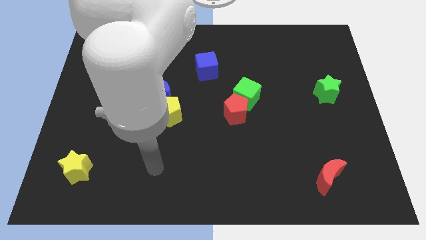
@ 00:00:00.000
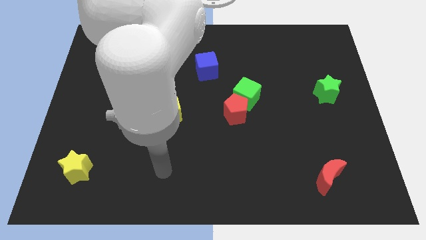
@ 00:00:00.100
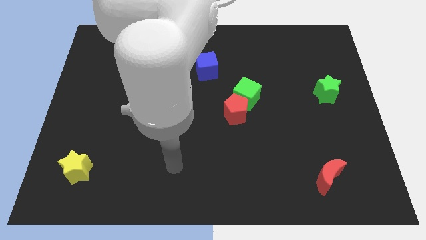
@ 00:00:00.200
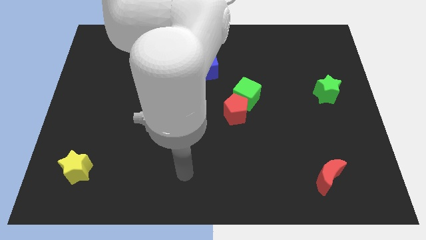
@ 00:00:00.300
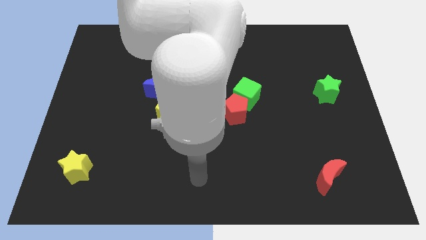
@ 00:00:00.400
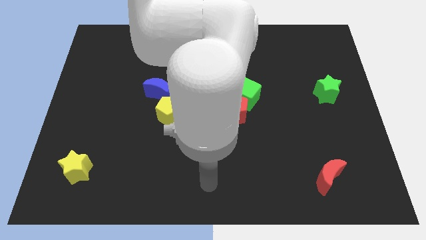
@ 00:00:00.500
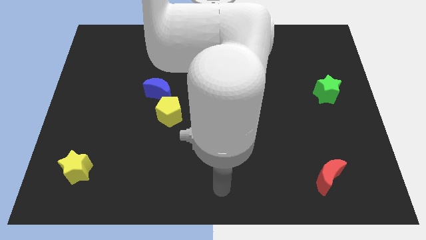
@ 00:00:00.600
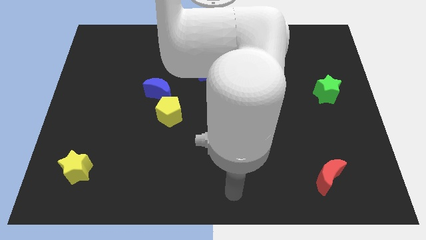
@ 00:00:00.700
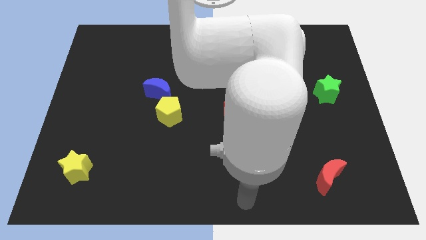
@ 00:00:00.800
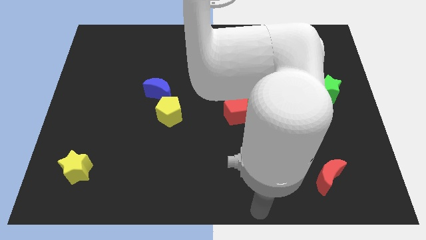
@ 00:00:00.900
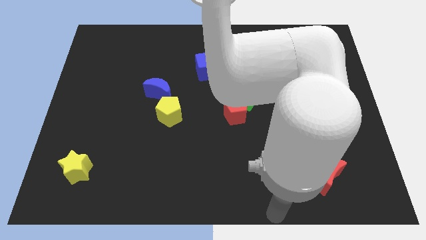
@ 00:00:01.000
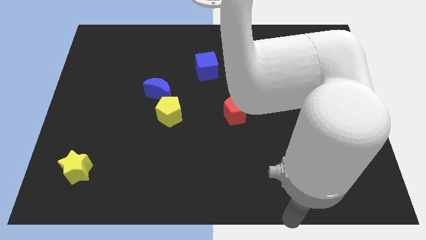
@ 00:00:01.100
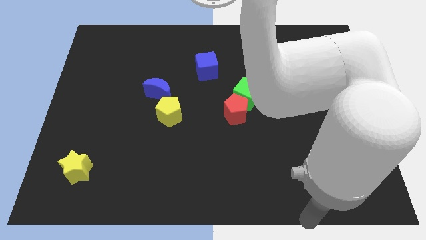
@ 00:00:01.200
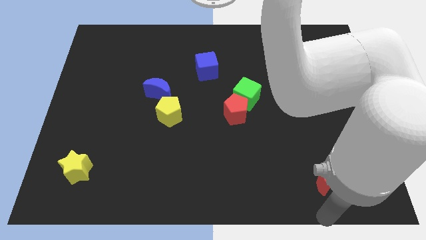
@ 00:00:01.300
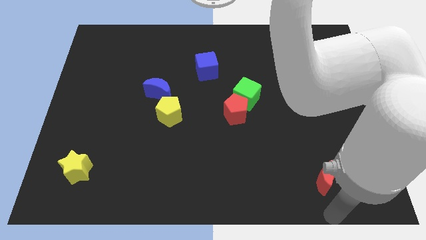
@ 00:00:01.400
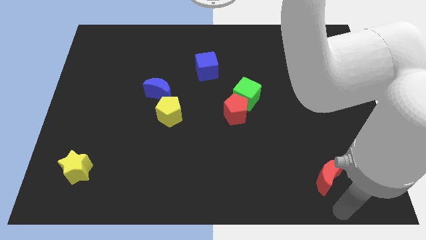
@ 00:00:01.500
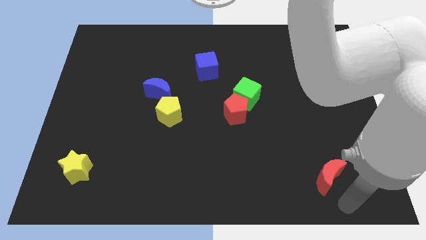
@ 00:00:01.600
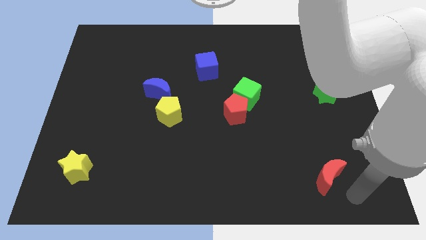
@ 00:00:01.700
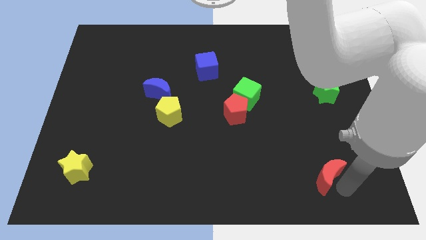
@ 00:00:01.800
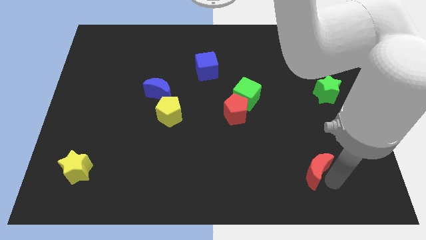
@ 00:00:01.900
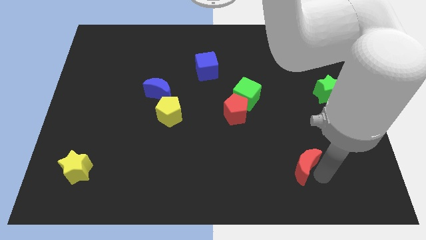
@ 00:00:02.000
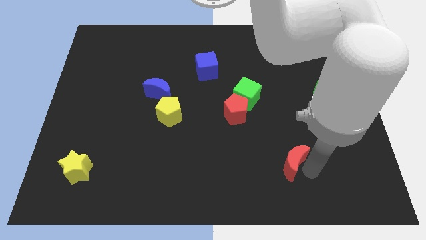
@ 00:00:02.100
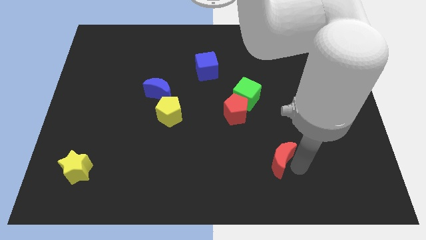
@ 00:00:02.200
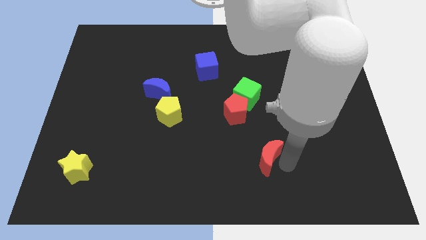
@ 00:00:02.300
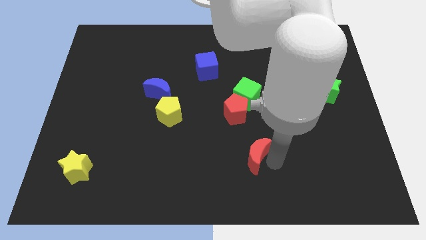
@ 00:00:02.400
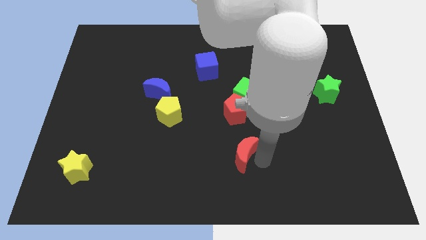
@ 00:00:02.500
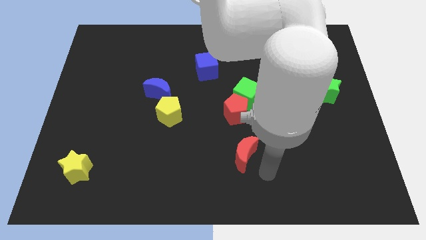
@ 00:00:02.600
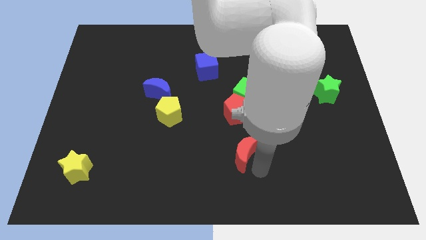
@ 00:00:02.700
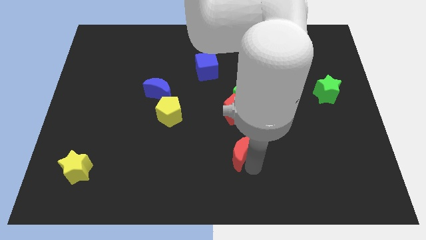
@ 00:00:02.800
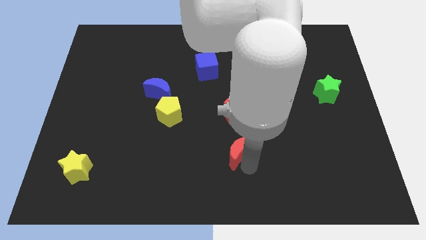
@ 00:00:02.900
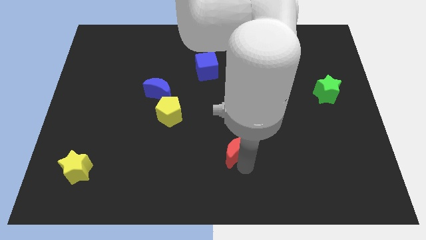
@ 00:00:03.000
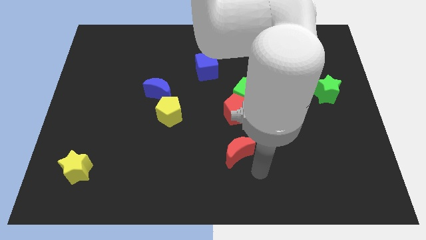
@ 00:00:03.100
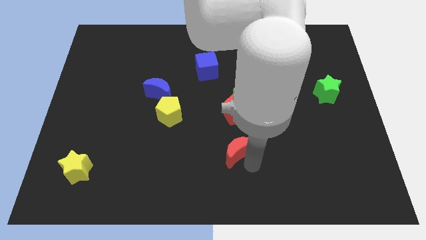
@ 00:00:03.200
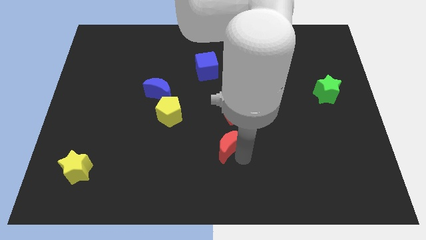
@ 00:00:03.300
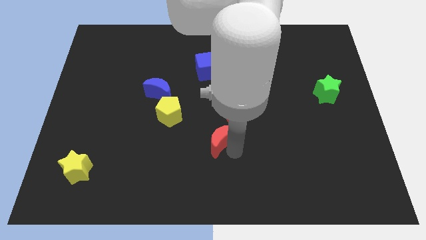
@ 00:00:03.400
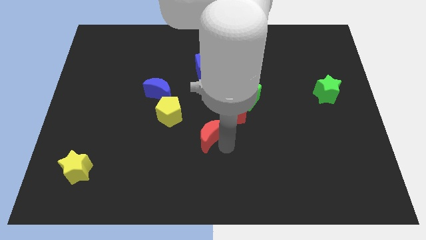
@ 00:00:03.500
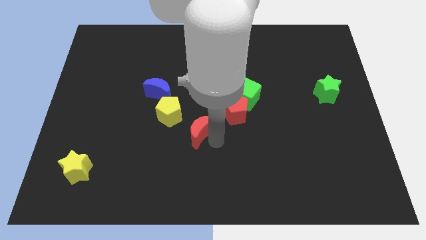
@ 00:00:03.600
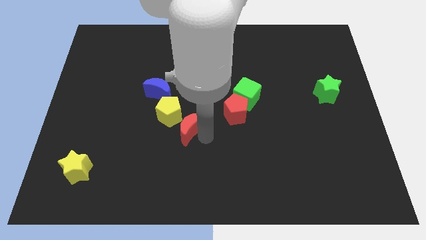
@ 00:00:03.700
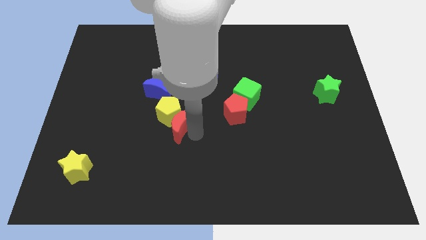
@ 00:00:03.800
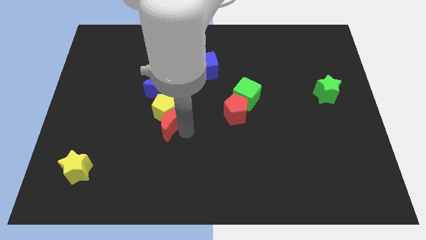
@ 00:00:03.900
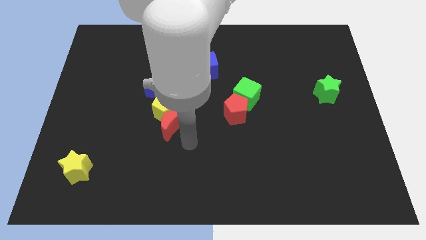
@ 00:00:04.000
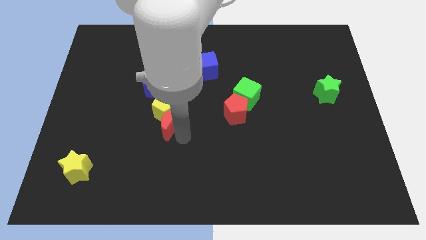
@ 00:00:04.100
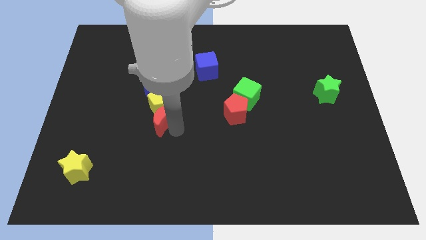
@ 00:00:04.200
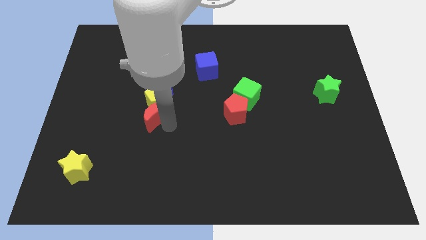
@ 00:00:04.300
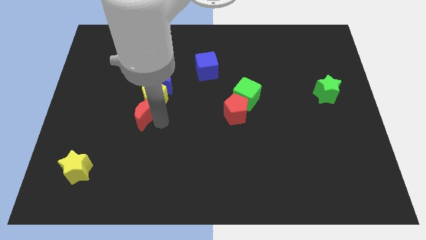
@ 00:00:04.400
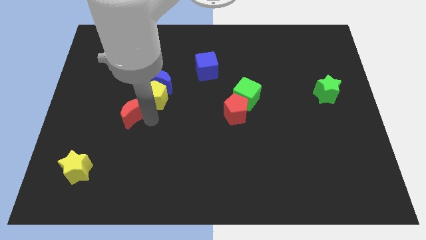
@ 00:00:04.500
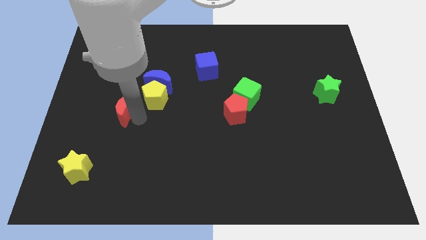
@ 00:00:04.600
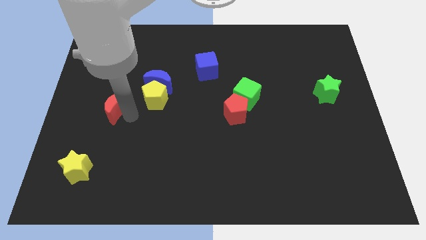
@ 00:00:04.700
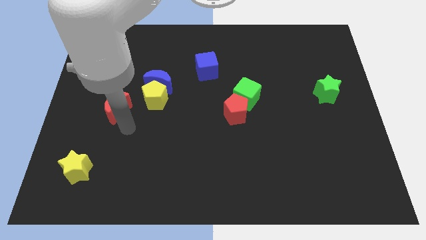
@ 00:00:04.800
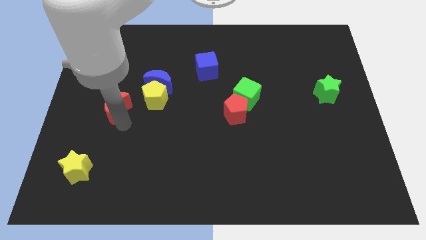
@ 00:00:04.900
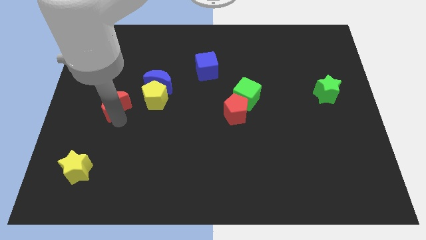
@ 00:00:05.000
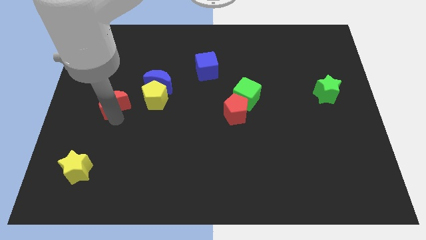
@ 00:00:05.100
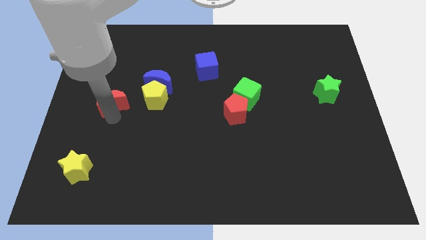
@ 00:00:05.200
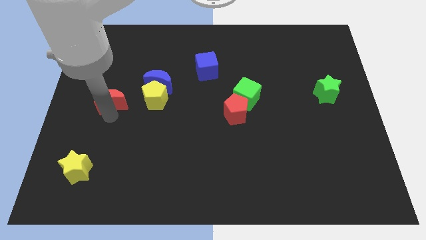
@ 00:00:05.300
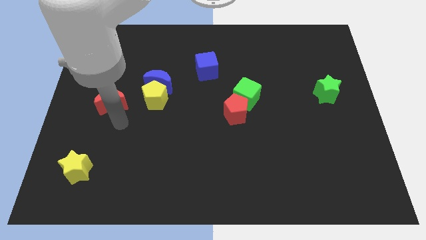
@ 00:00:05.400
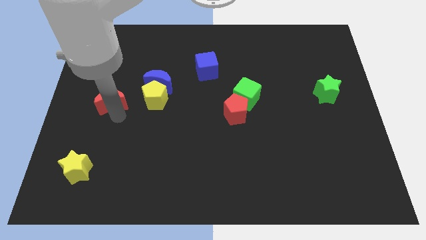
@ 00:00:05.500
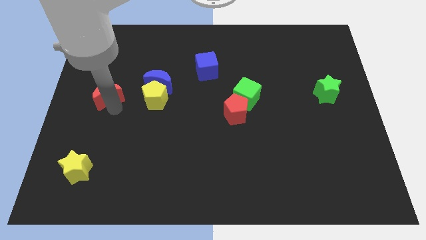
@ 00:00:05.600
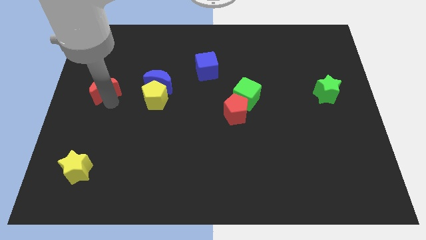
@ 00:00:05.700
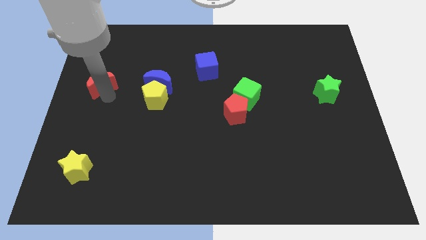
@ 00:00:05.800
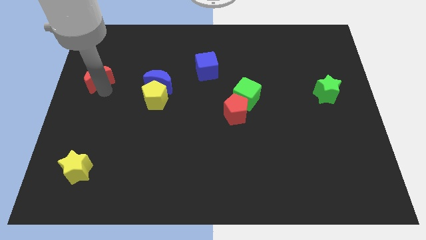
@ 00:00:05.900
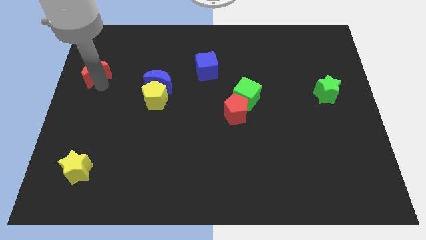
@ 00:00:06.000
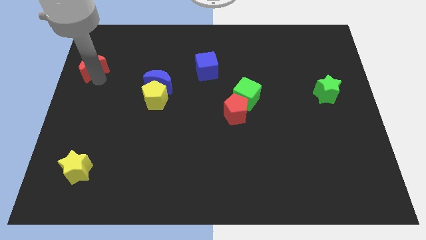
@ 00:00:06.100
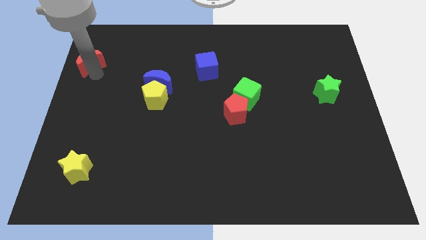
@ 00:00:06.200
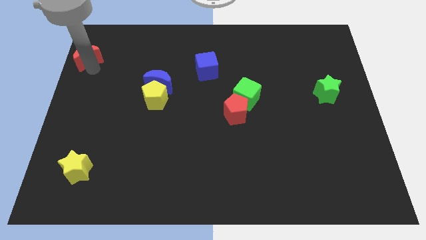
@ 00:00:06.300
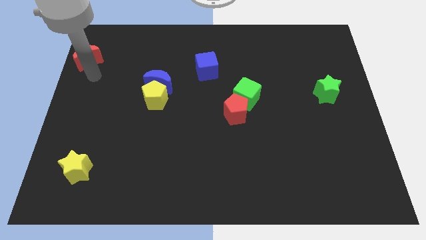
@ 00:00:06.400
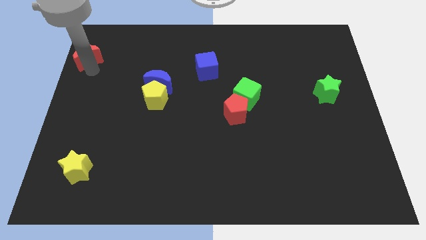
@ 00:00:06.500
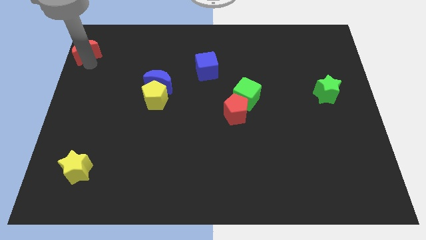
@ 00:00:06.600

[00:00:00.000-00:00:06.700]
slide the red moon to the upper left corner

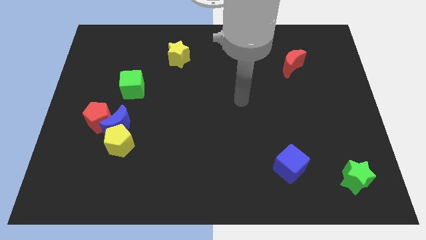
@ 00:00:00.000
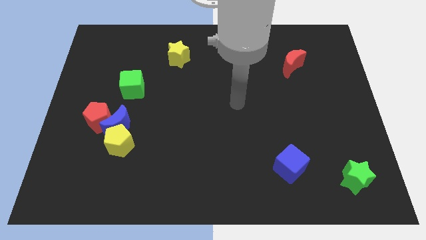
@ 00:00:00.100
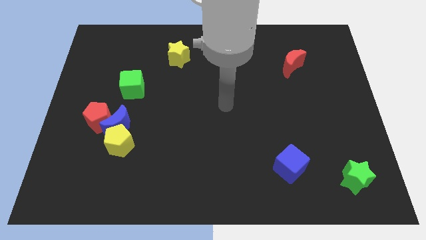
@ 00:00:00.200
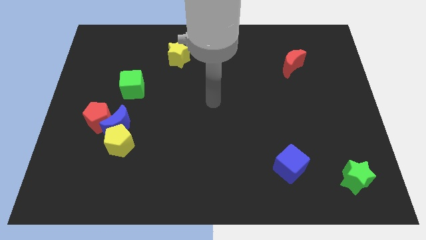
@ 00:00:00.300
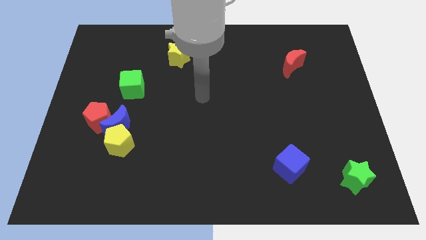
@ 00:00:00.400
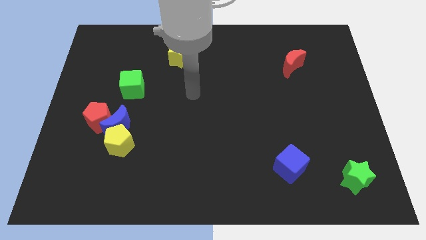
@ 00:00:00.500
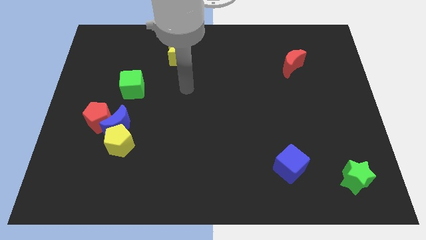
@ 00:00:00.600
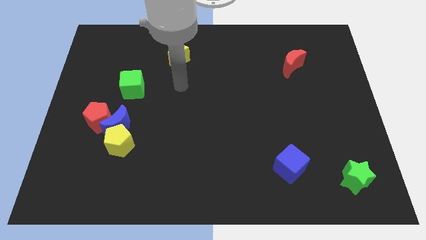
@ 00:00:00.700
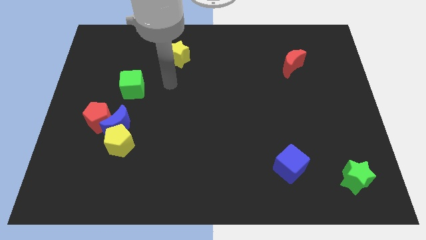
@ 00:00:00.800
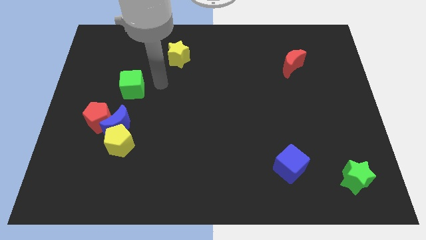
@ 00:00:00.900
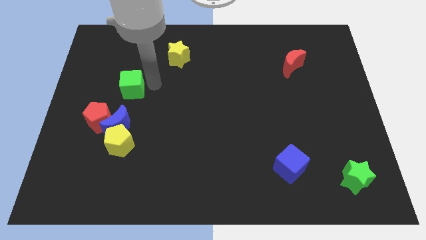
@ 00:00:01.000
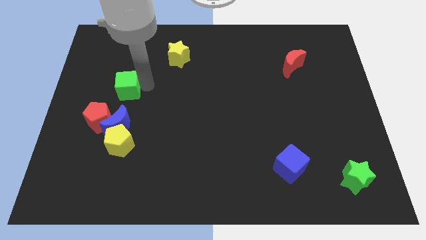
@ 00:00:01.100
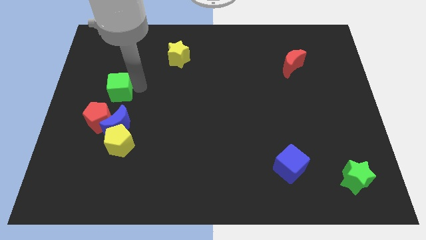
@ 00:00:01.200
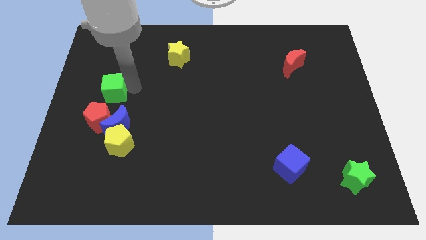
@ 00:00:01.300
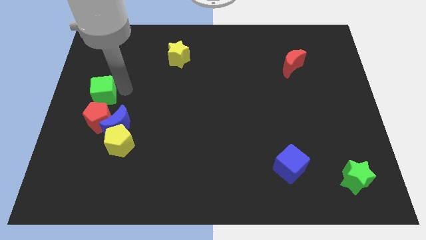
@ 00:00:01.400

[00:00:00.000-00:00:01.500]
put the green cube to the left side of the board
